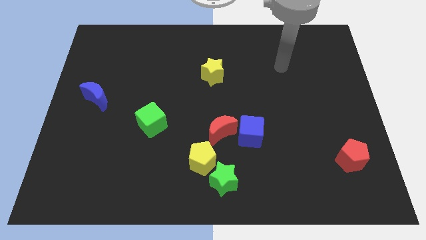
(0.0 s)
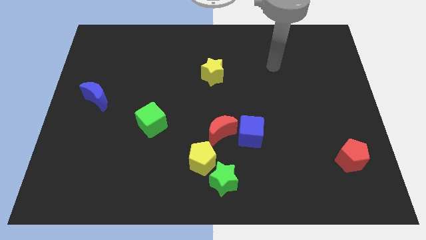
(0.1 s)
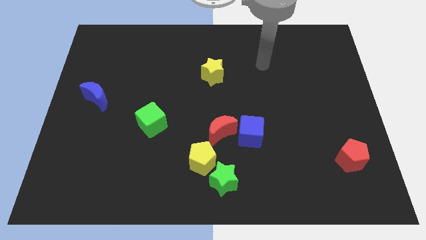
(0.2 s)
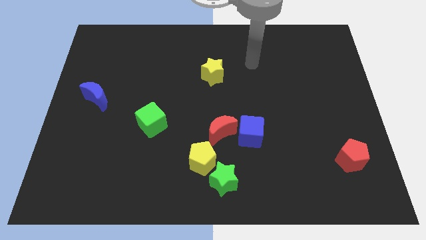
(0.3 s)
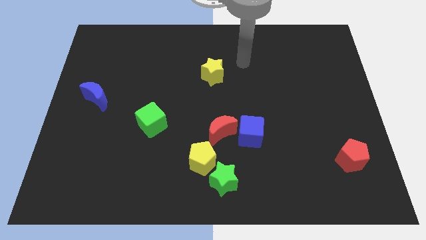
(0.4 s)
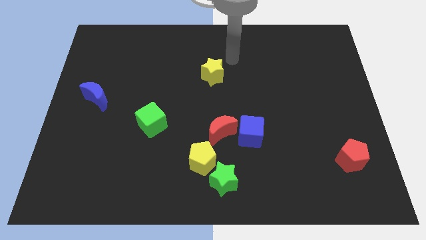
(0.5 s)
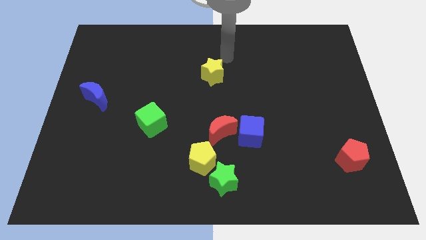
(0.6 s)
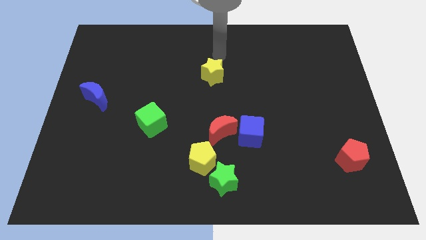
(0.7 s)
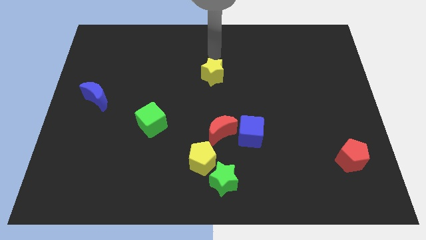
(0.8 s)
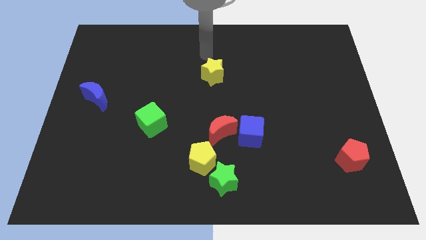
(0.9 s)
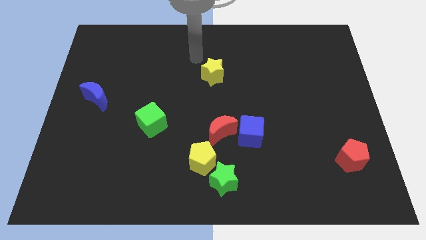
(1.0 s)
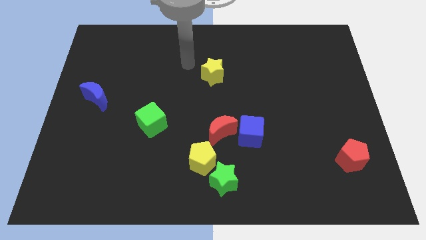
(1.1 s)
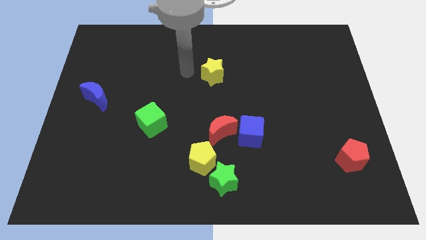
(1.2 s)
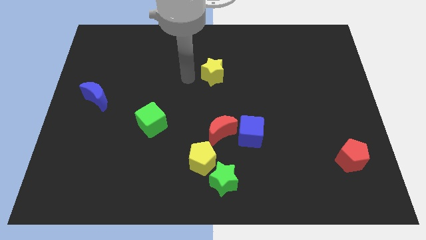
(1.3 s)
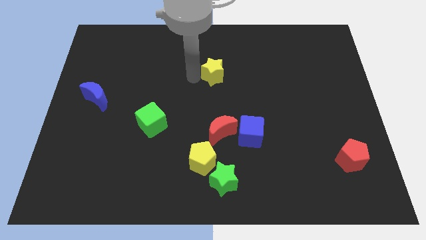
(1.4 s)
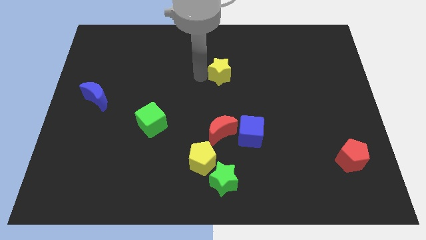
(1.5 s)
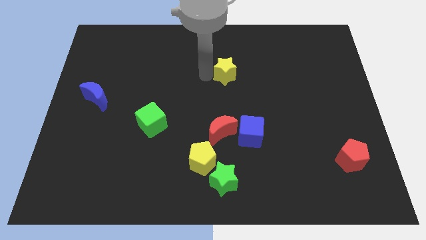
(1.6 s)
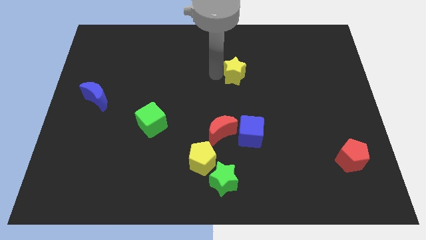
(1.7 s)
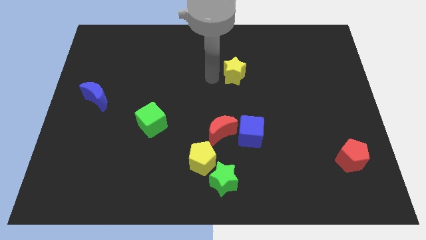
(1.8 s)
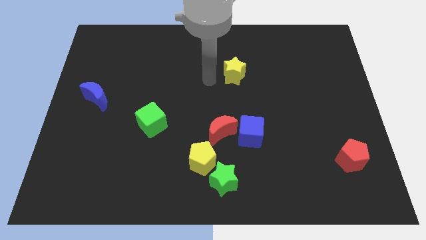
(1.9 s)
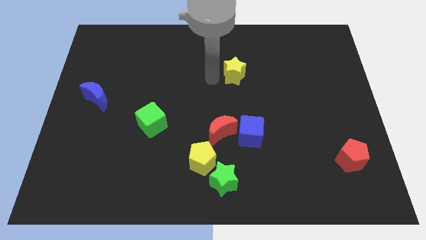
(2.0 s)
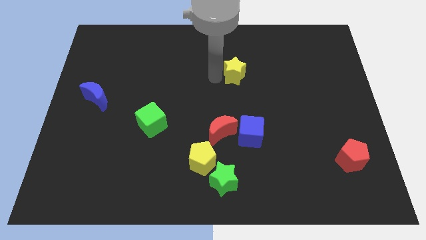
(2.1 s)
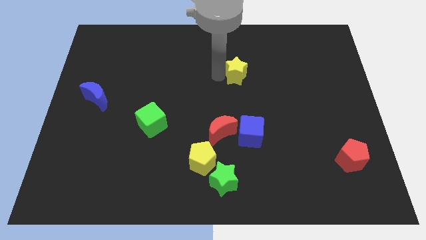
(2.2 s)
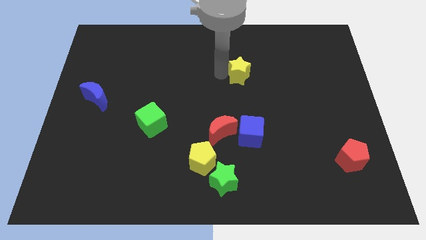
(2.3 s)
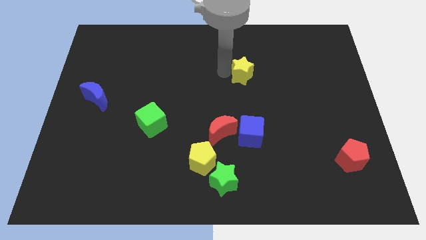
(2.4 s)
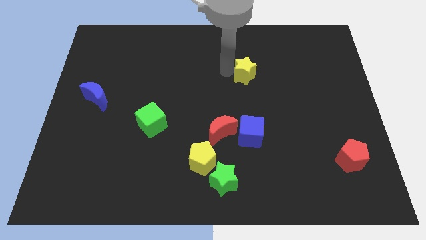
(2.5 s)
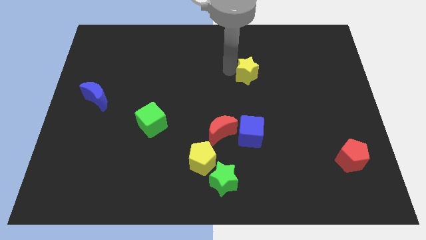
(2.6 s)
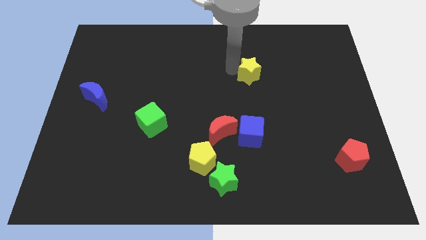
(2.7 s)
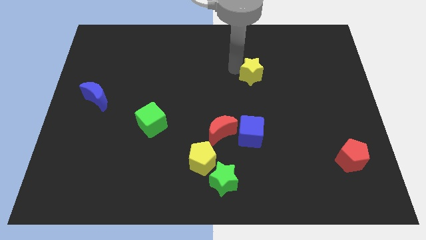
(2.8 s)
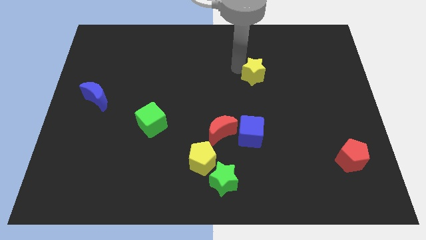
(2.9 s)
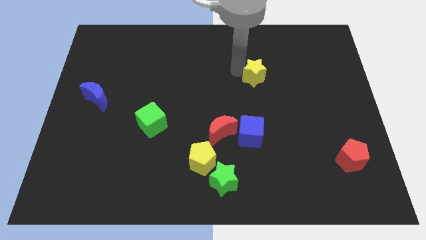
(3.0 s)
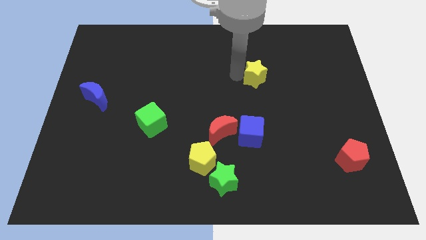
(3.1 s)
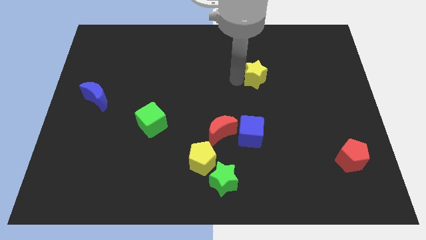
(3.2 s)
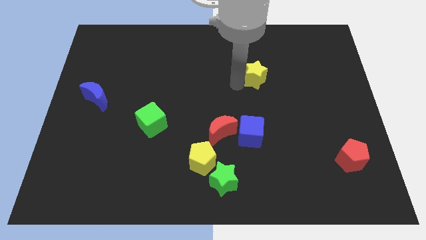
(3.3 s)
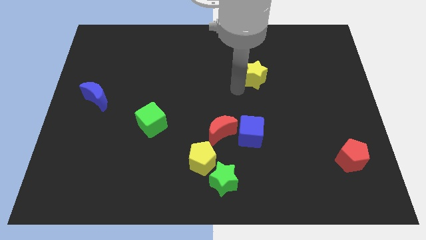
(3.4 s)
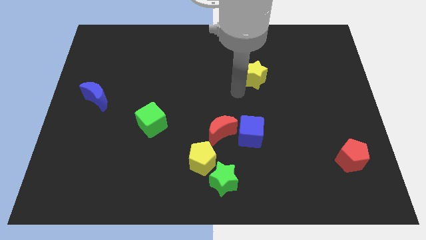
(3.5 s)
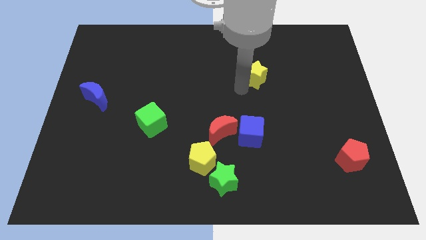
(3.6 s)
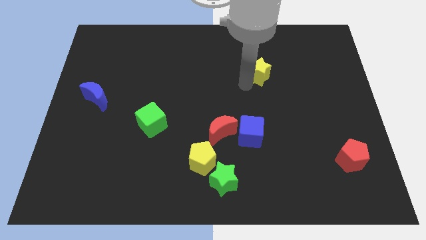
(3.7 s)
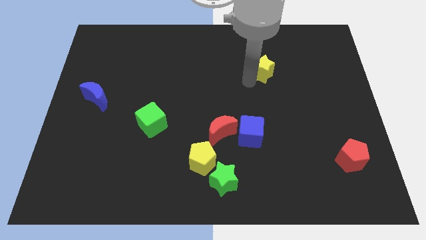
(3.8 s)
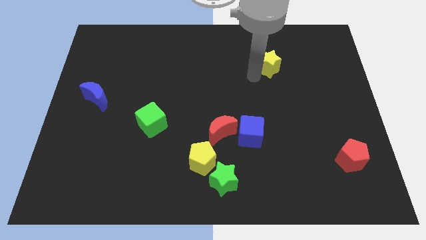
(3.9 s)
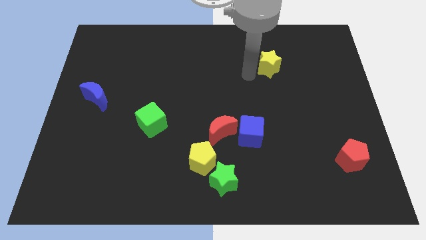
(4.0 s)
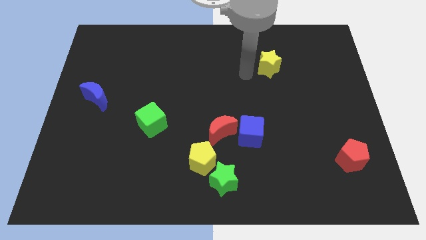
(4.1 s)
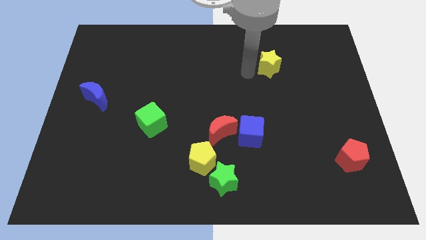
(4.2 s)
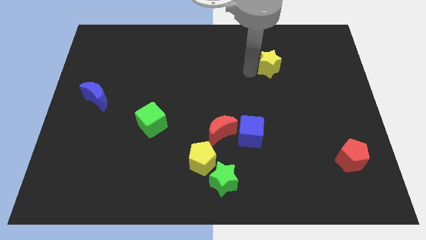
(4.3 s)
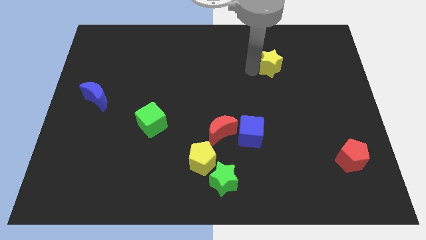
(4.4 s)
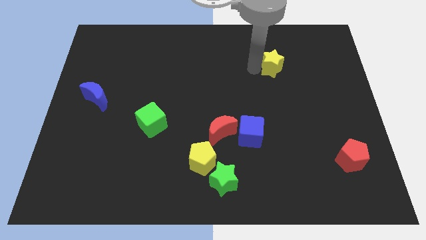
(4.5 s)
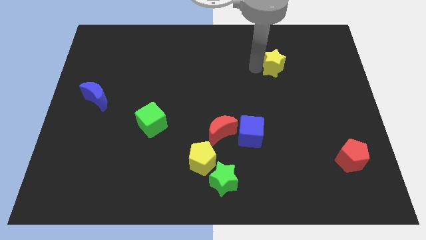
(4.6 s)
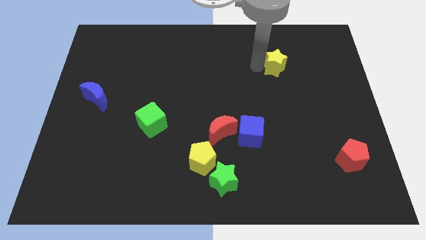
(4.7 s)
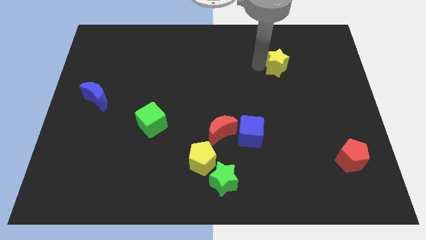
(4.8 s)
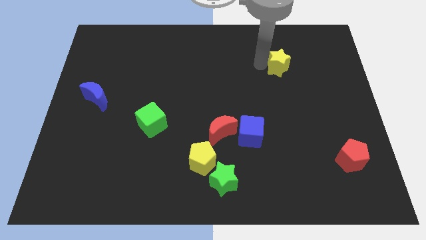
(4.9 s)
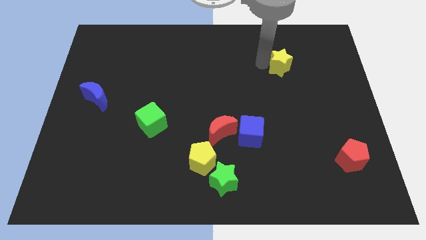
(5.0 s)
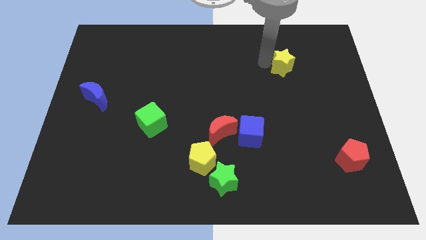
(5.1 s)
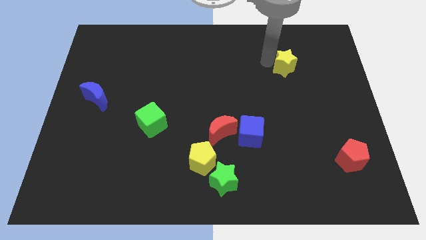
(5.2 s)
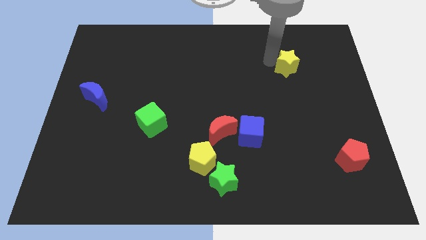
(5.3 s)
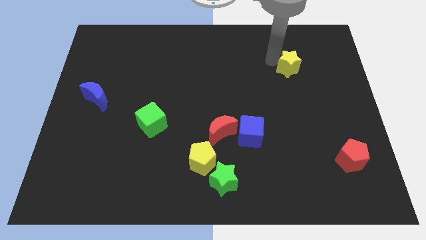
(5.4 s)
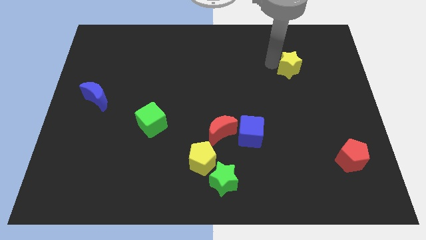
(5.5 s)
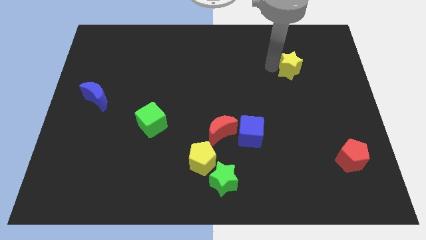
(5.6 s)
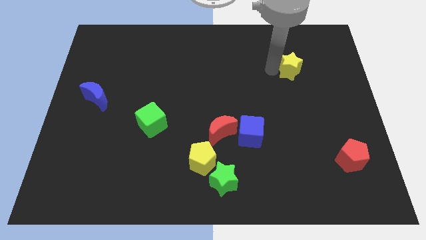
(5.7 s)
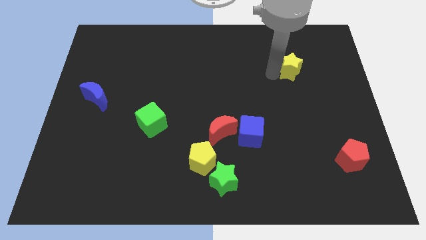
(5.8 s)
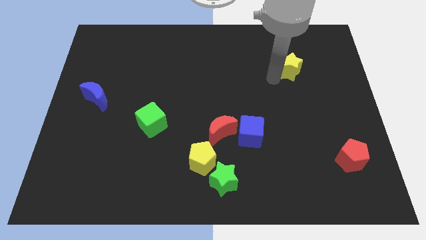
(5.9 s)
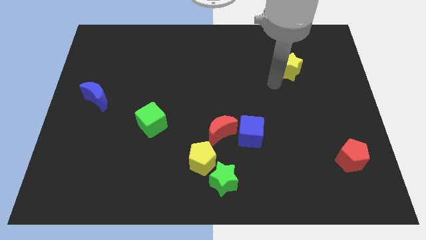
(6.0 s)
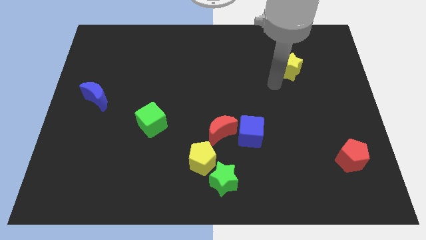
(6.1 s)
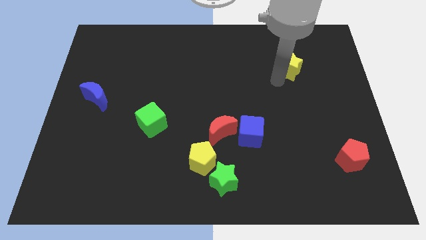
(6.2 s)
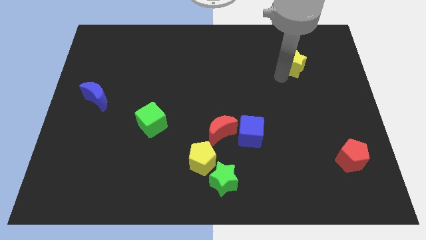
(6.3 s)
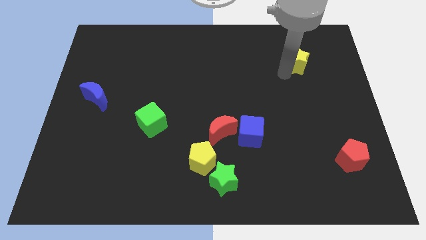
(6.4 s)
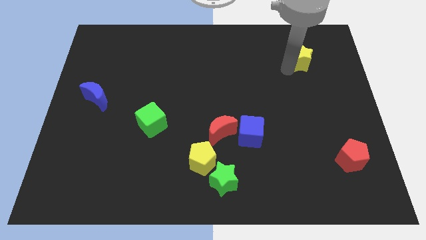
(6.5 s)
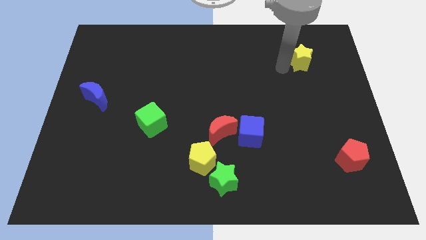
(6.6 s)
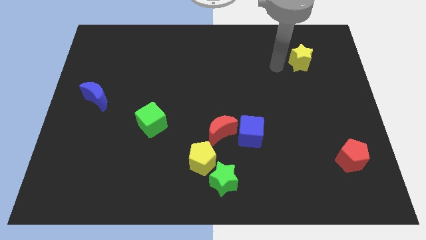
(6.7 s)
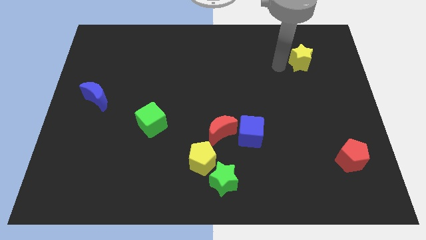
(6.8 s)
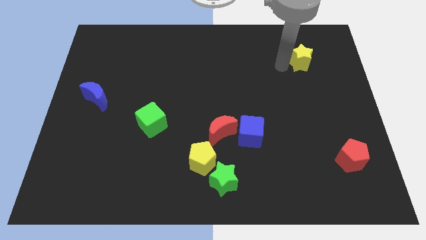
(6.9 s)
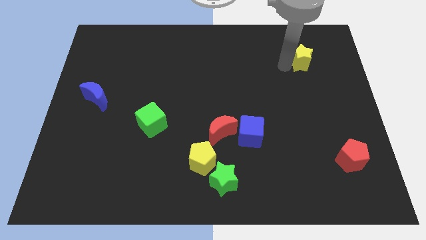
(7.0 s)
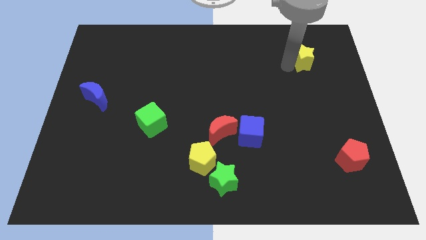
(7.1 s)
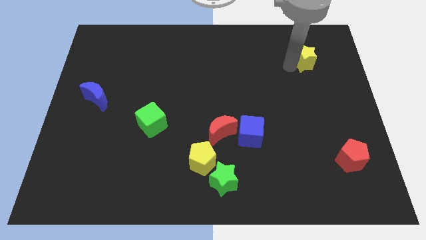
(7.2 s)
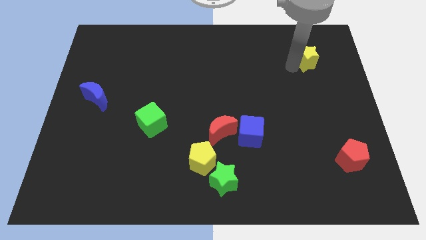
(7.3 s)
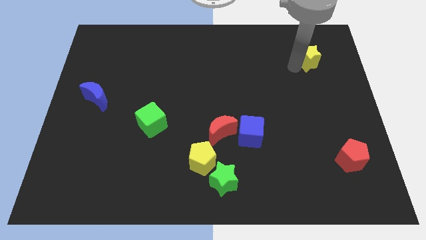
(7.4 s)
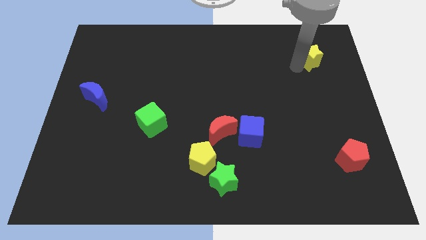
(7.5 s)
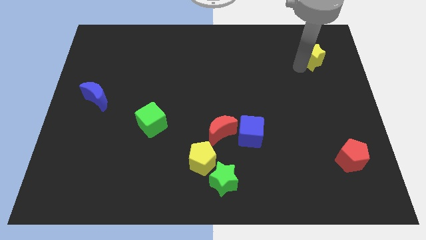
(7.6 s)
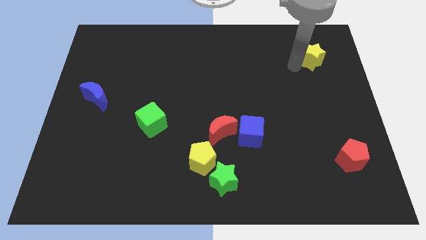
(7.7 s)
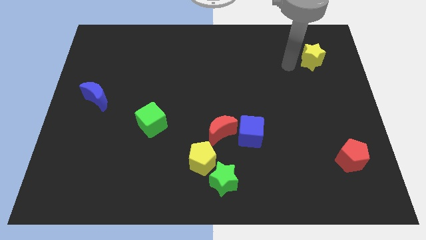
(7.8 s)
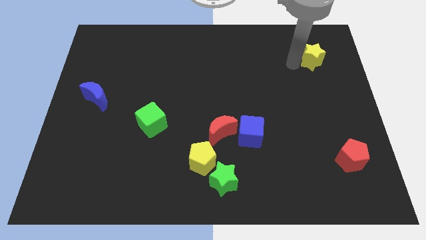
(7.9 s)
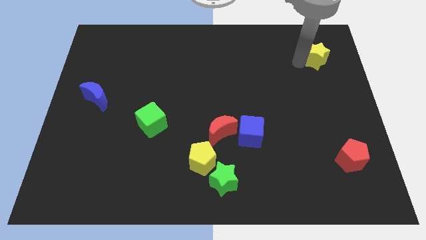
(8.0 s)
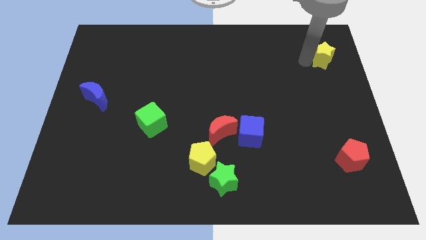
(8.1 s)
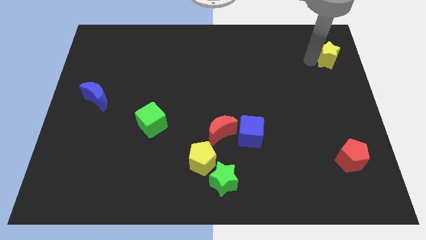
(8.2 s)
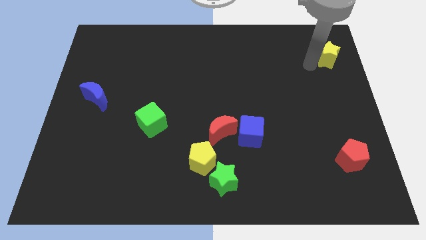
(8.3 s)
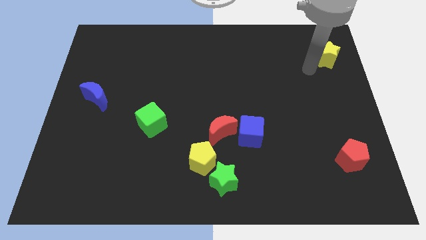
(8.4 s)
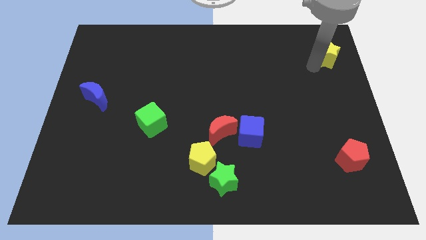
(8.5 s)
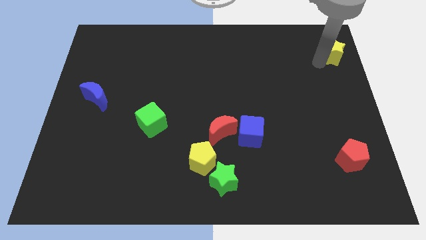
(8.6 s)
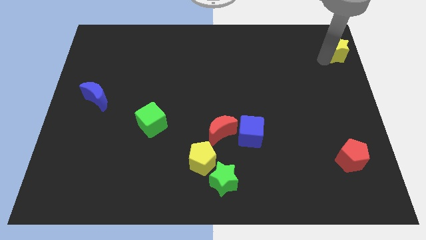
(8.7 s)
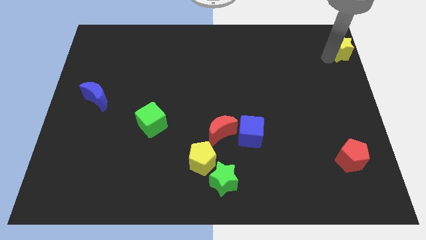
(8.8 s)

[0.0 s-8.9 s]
move the yellow star to the top right corner
